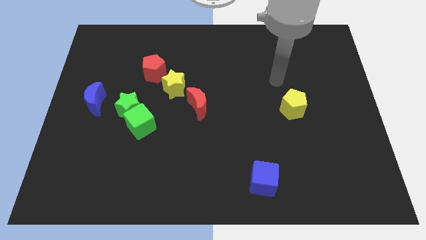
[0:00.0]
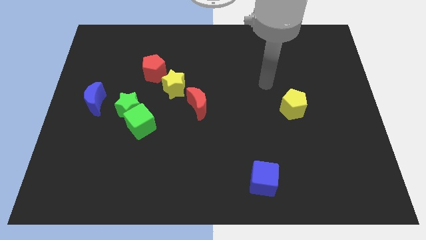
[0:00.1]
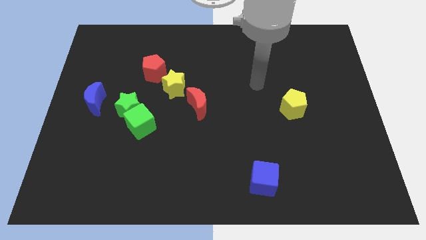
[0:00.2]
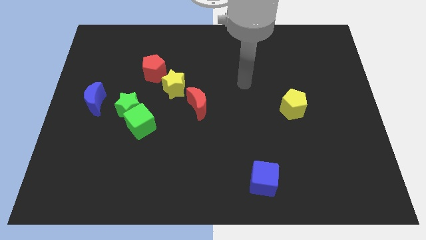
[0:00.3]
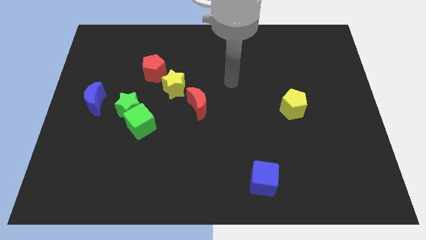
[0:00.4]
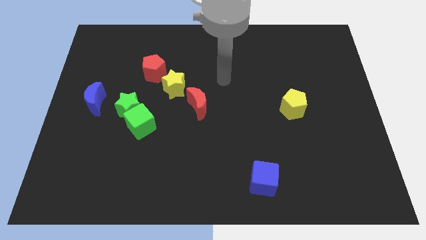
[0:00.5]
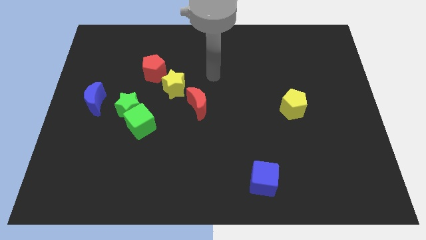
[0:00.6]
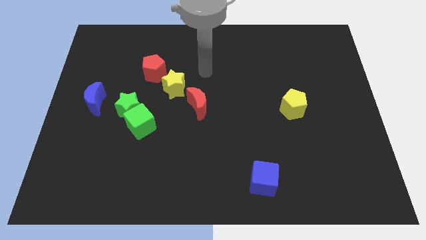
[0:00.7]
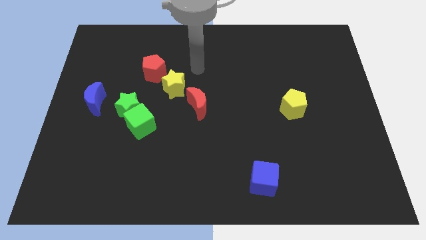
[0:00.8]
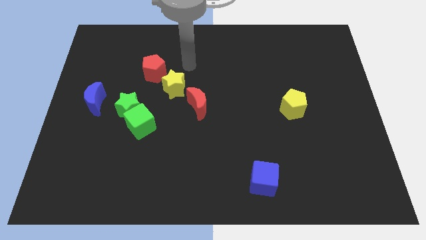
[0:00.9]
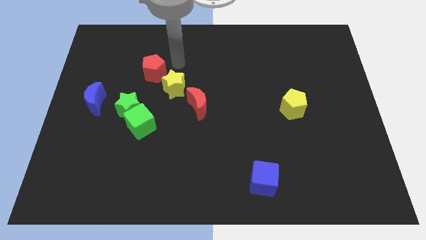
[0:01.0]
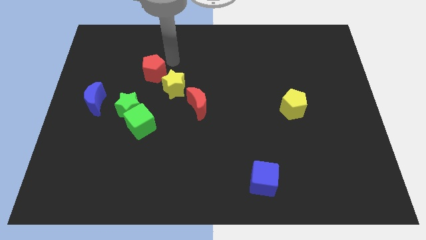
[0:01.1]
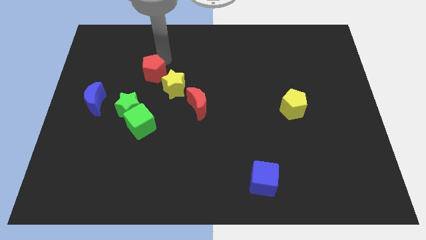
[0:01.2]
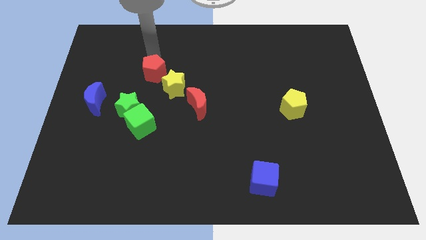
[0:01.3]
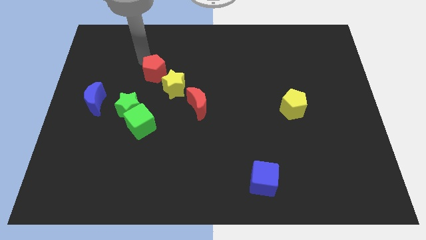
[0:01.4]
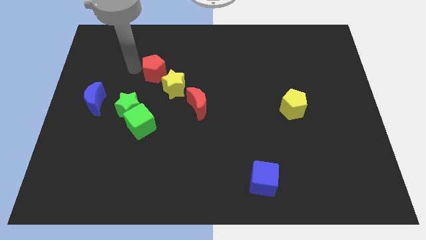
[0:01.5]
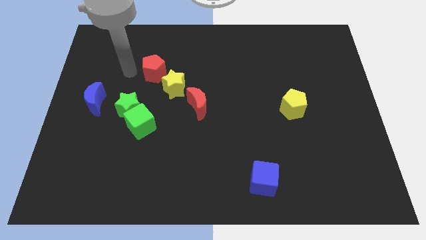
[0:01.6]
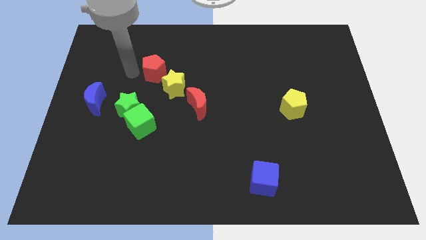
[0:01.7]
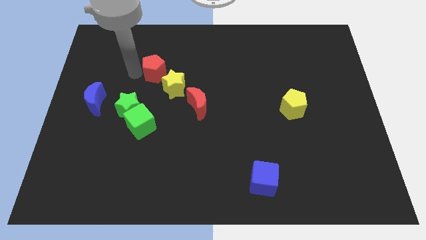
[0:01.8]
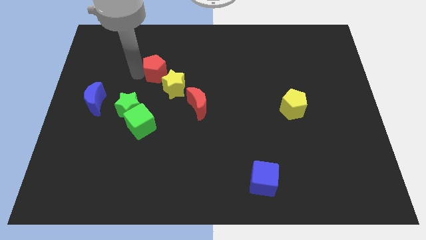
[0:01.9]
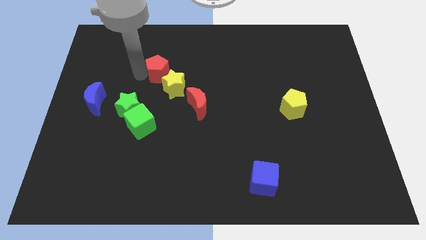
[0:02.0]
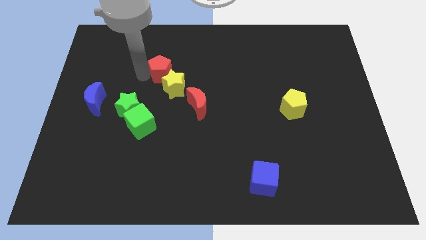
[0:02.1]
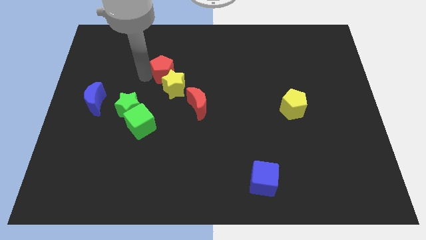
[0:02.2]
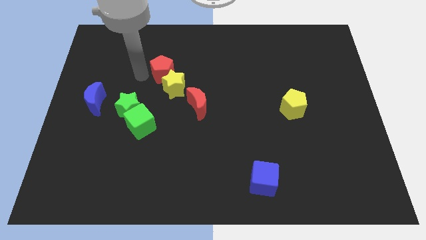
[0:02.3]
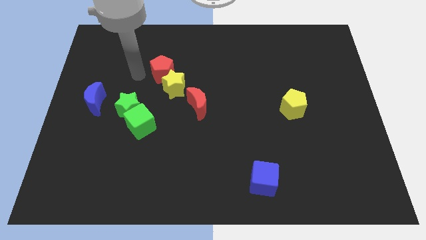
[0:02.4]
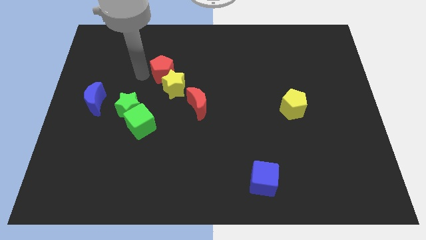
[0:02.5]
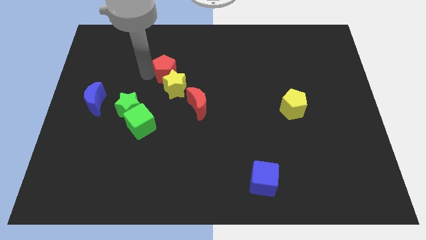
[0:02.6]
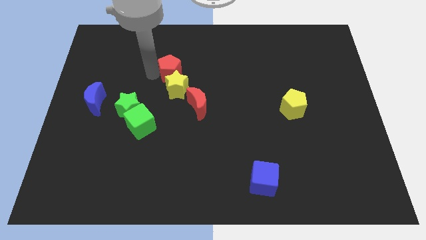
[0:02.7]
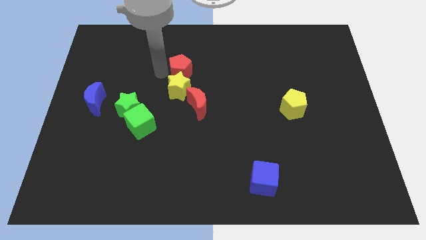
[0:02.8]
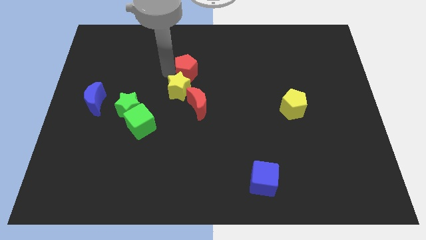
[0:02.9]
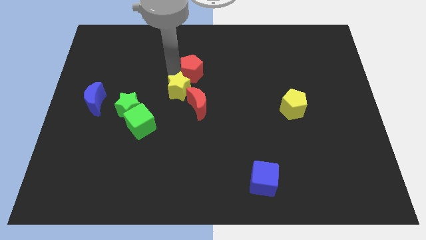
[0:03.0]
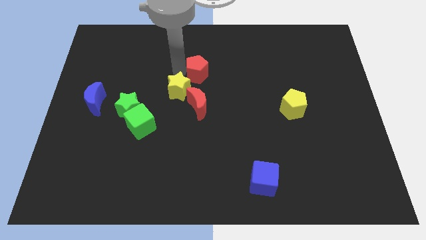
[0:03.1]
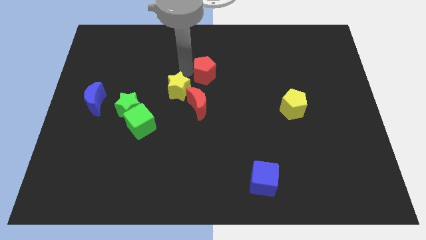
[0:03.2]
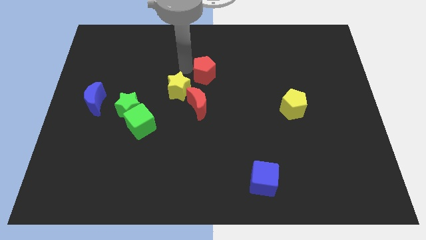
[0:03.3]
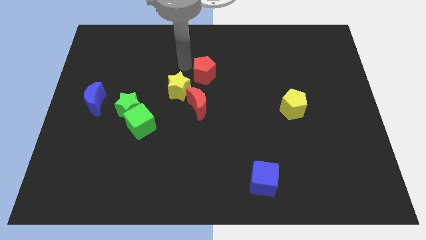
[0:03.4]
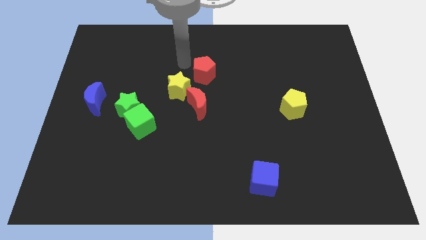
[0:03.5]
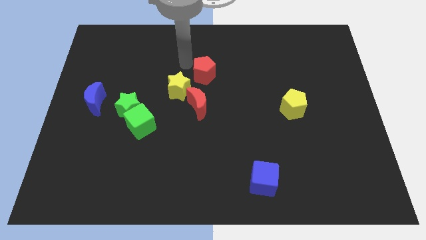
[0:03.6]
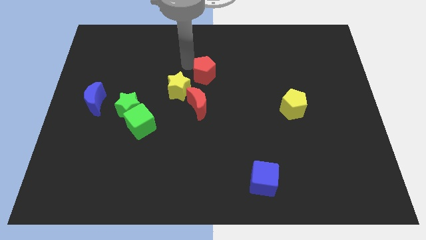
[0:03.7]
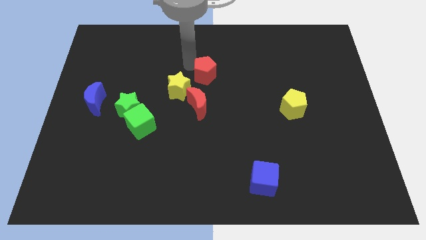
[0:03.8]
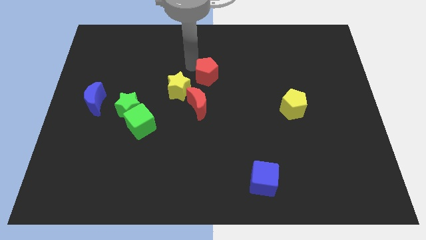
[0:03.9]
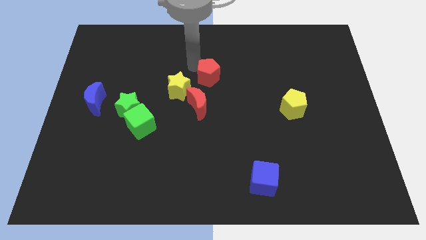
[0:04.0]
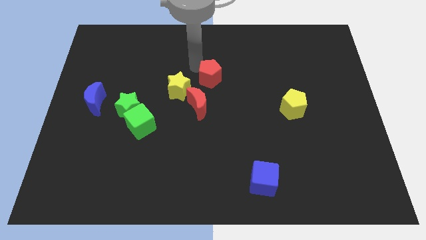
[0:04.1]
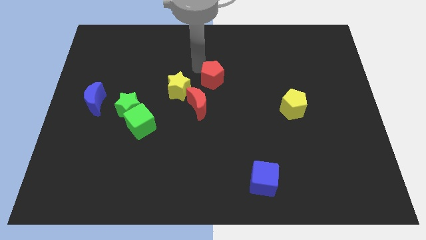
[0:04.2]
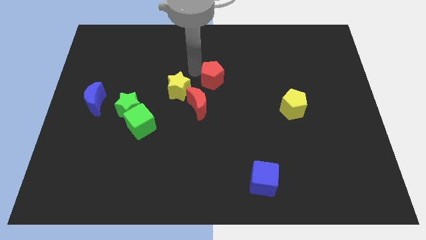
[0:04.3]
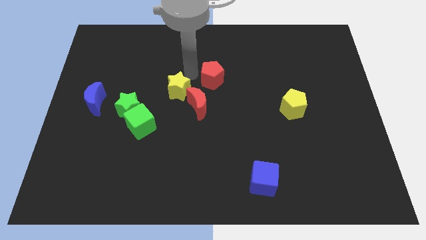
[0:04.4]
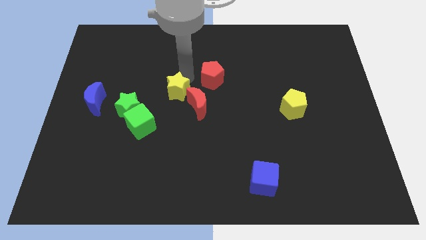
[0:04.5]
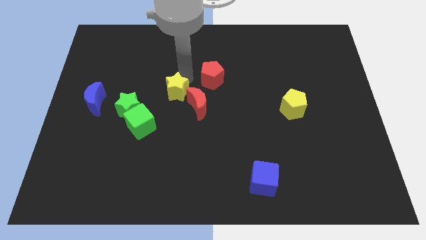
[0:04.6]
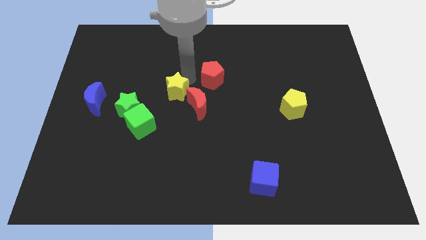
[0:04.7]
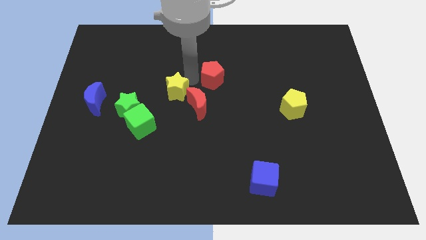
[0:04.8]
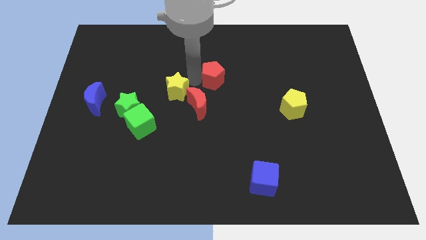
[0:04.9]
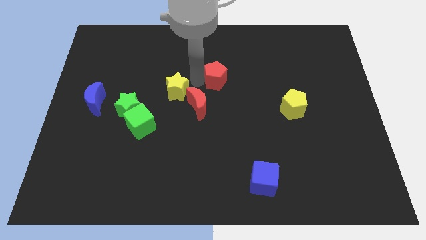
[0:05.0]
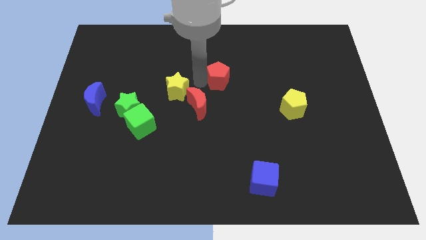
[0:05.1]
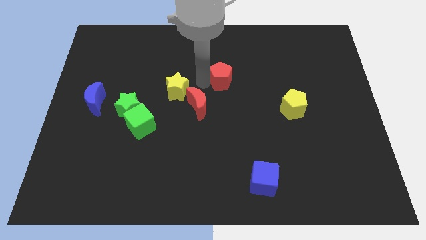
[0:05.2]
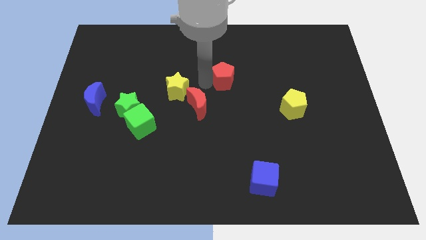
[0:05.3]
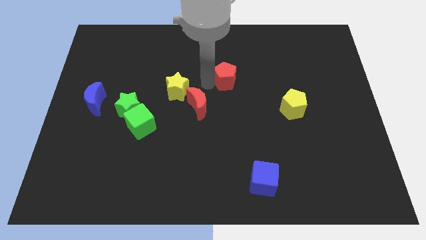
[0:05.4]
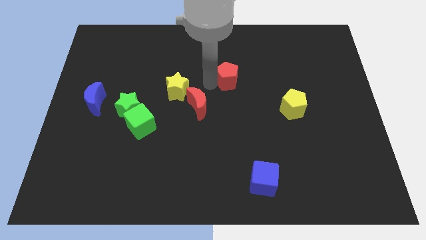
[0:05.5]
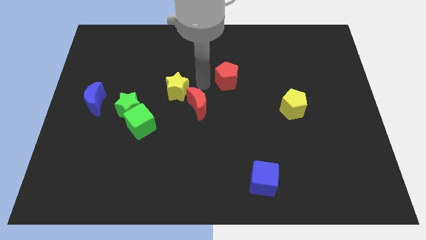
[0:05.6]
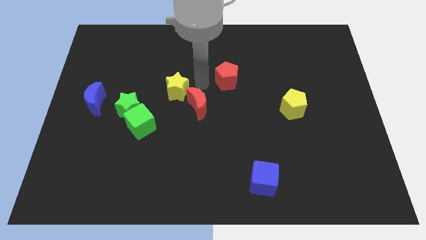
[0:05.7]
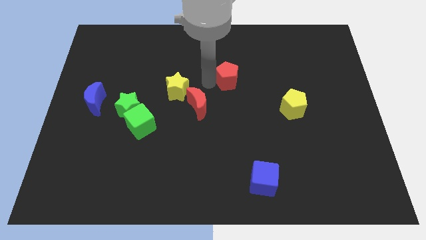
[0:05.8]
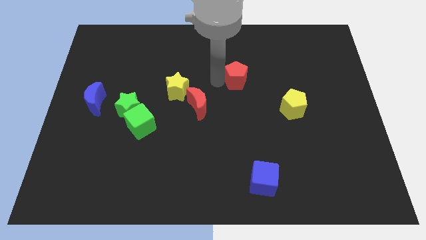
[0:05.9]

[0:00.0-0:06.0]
move the red pentagon right

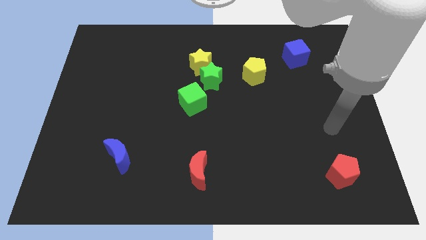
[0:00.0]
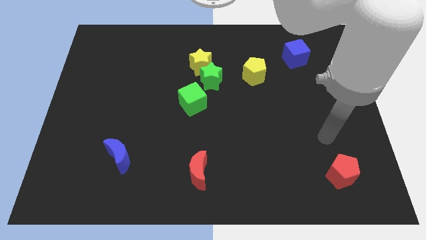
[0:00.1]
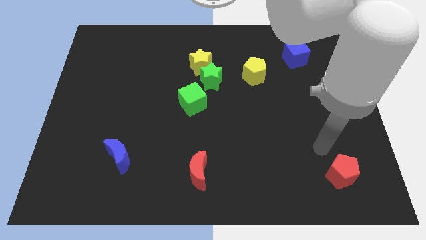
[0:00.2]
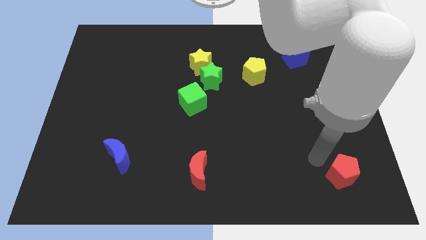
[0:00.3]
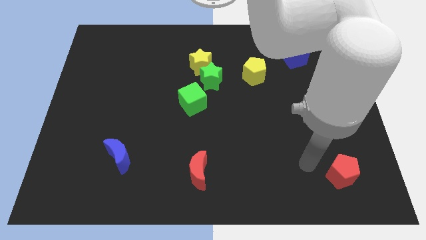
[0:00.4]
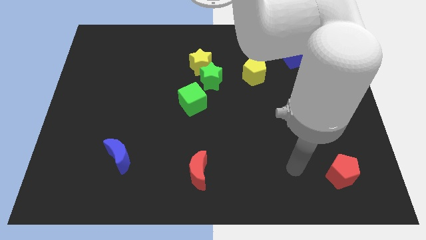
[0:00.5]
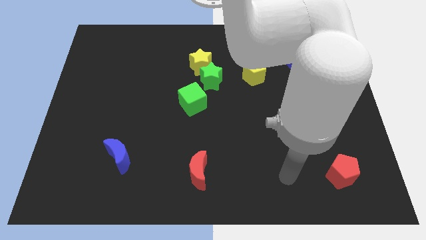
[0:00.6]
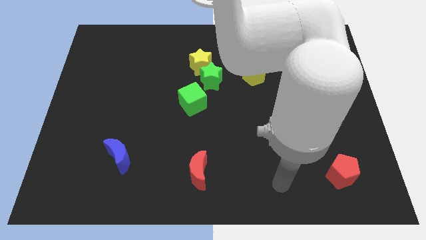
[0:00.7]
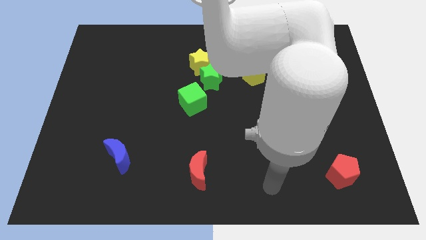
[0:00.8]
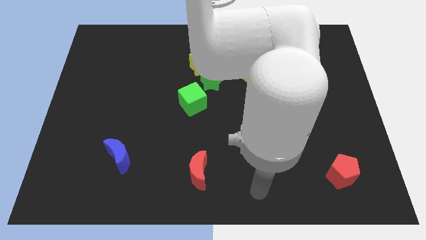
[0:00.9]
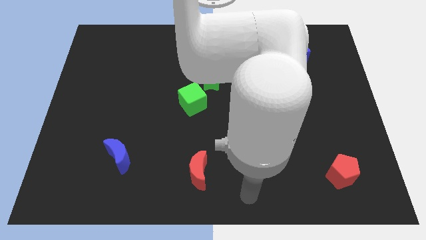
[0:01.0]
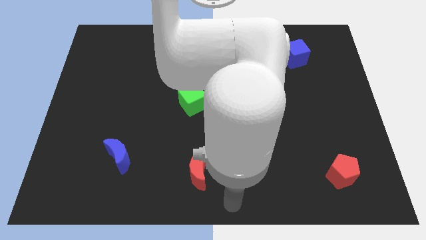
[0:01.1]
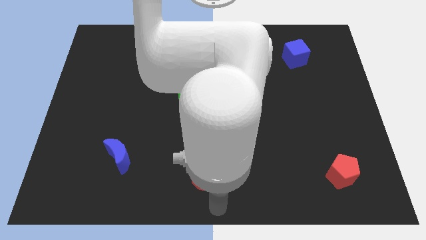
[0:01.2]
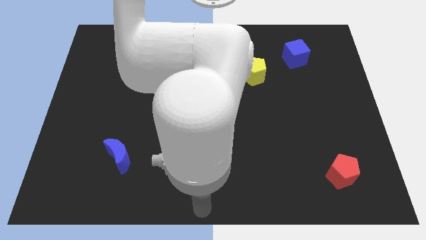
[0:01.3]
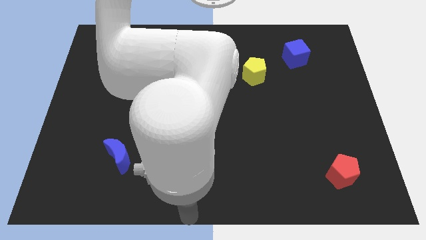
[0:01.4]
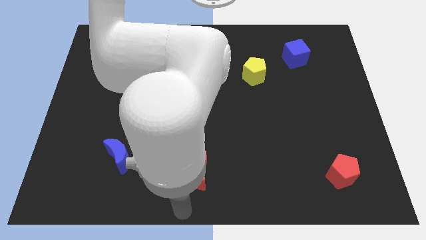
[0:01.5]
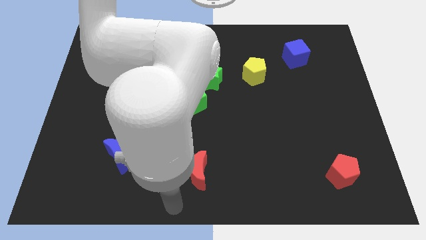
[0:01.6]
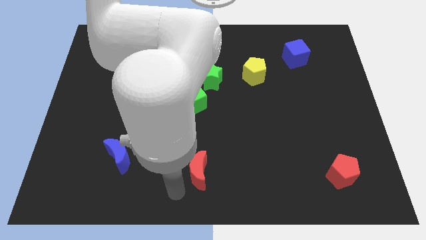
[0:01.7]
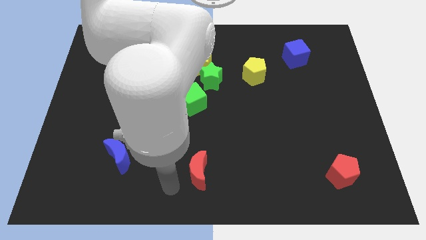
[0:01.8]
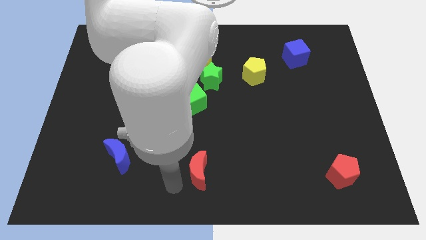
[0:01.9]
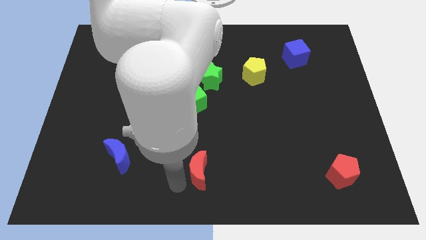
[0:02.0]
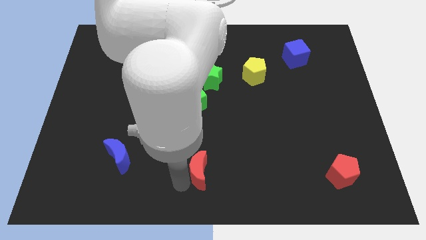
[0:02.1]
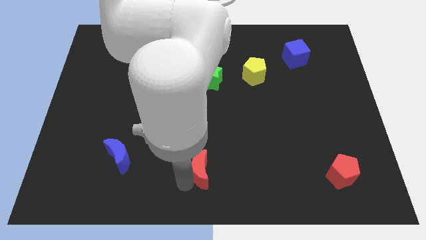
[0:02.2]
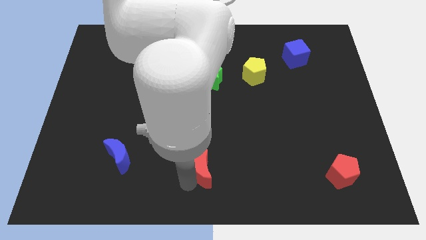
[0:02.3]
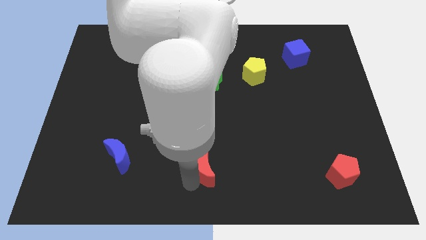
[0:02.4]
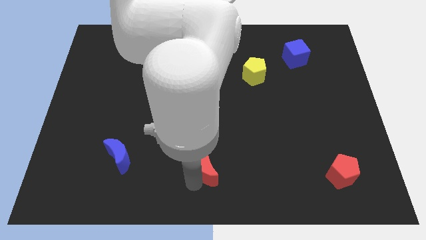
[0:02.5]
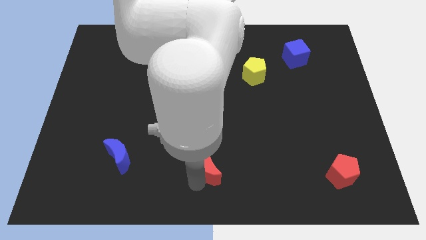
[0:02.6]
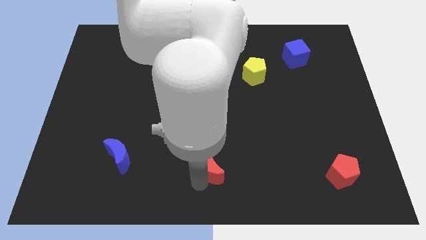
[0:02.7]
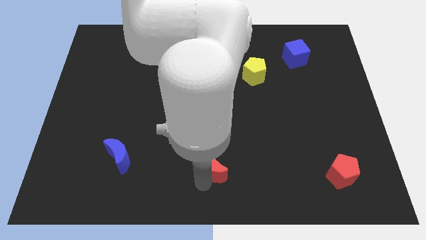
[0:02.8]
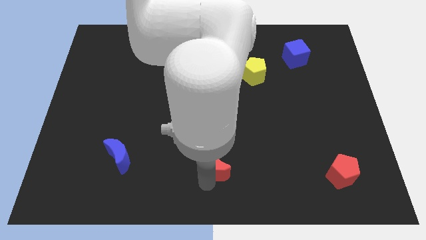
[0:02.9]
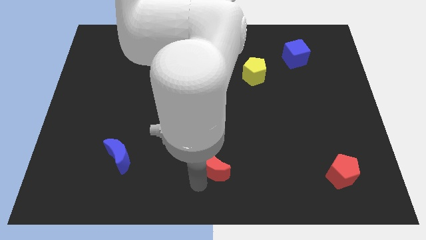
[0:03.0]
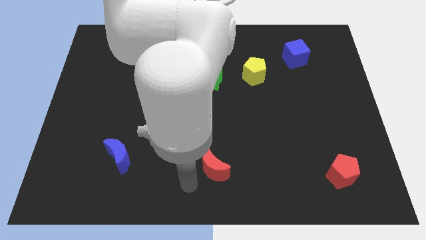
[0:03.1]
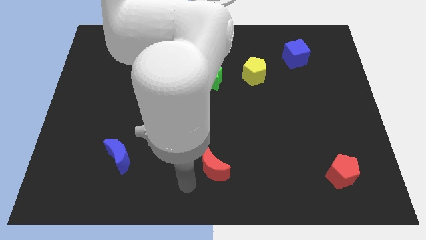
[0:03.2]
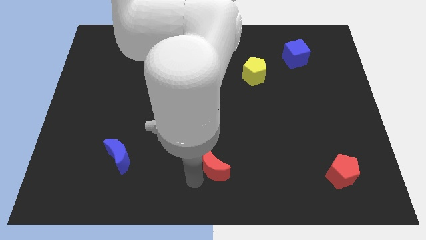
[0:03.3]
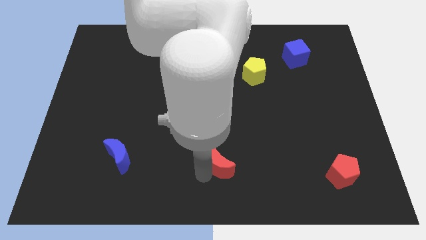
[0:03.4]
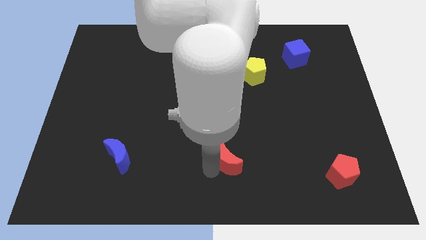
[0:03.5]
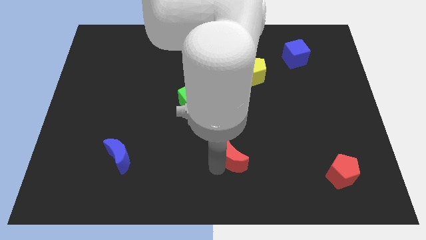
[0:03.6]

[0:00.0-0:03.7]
move the red moon upwards and to the right diagonally a little
